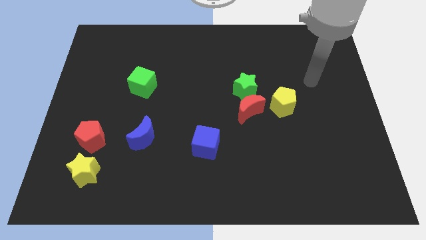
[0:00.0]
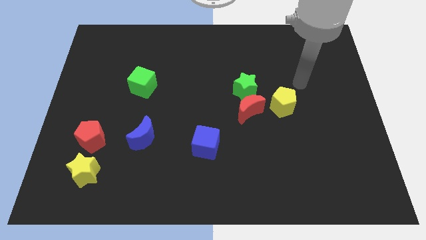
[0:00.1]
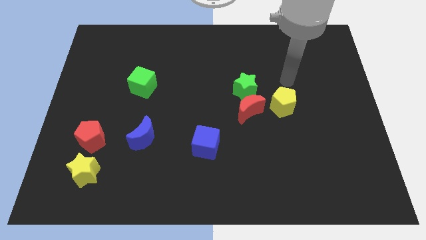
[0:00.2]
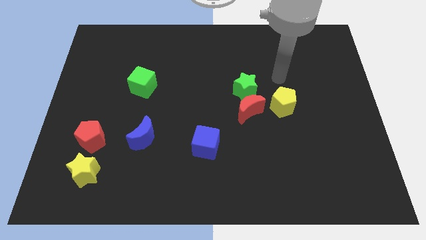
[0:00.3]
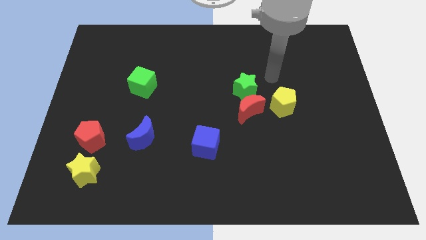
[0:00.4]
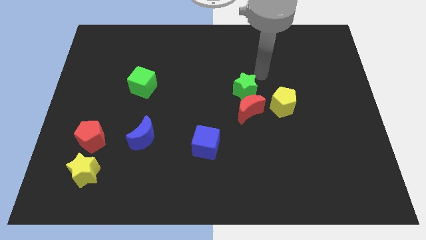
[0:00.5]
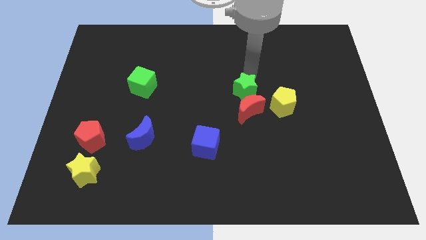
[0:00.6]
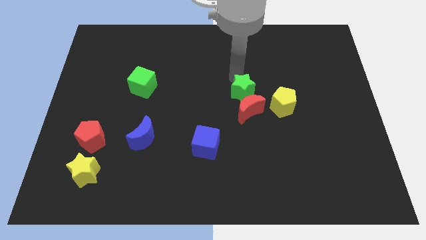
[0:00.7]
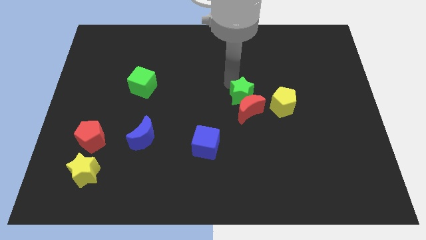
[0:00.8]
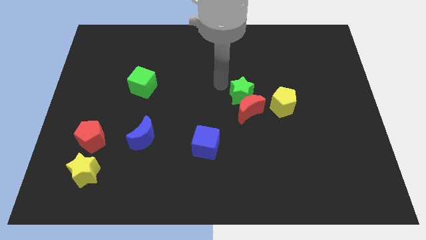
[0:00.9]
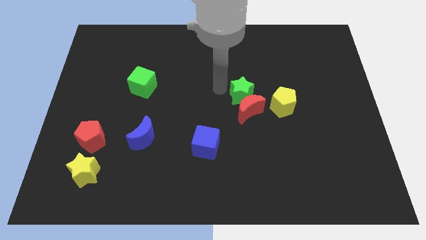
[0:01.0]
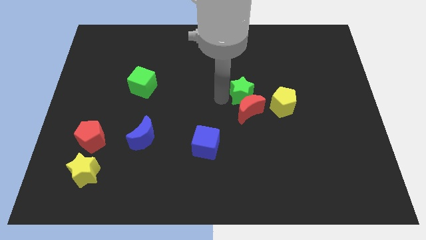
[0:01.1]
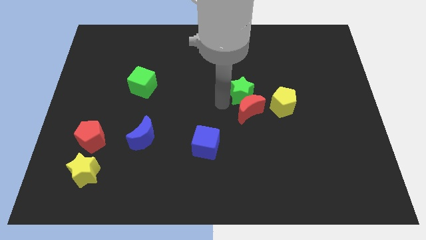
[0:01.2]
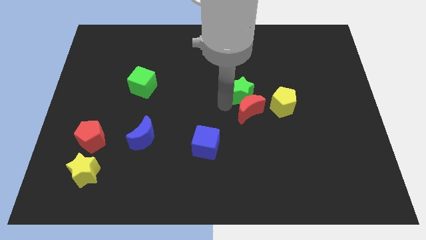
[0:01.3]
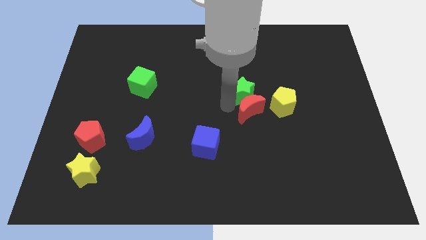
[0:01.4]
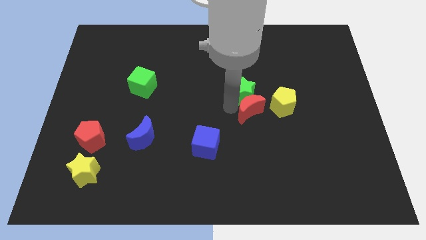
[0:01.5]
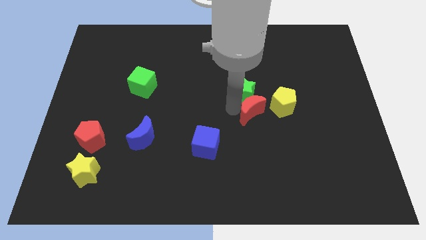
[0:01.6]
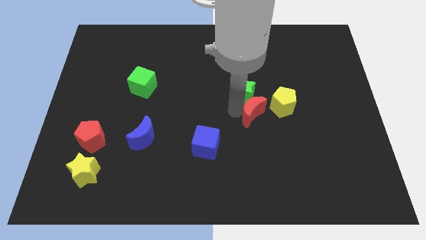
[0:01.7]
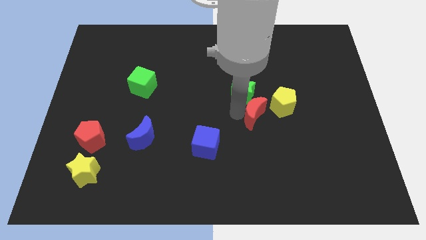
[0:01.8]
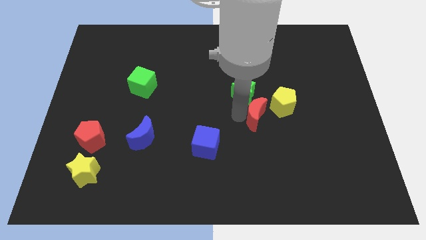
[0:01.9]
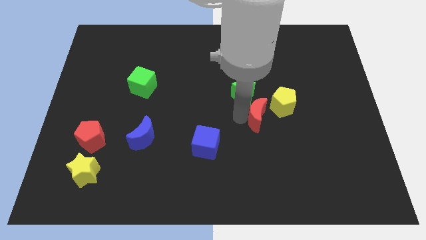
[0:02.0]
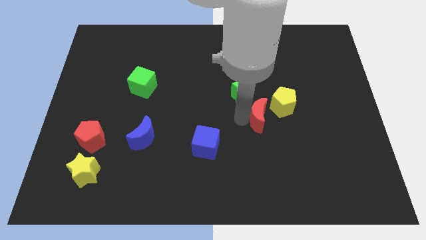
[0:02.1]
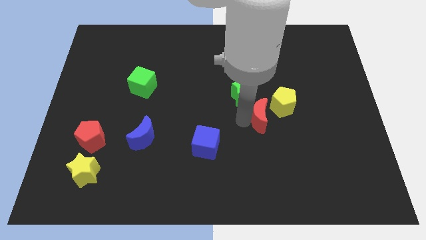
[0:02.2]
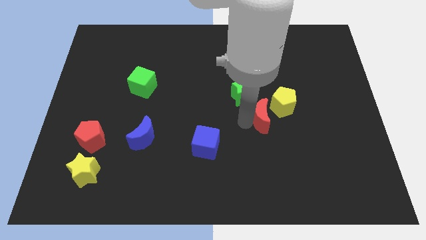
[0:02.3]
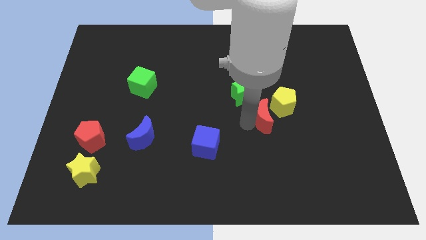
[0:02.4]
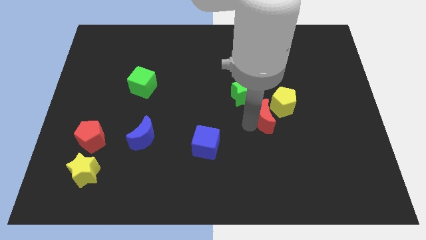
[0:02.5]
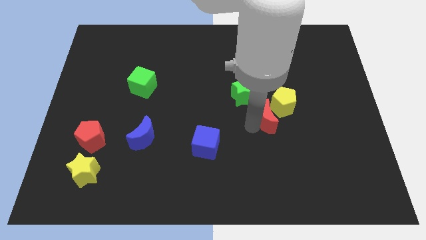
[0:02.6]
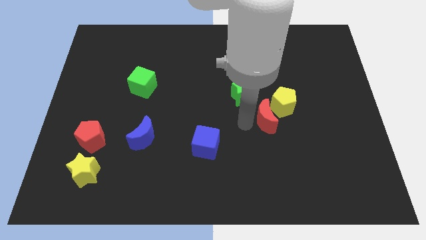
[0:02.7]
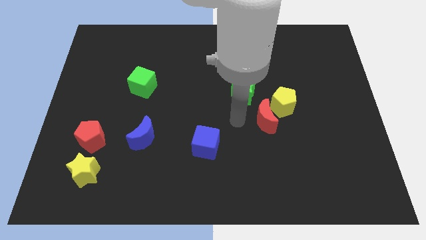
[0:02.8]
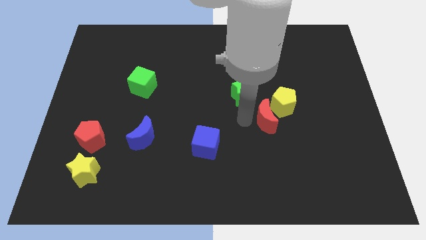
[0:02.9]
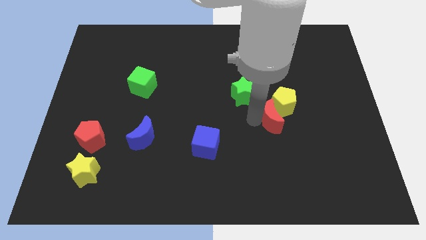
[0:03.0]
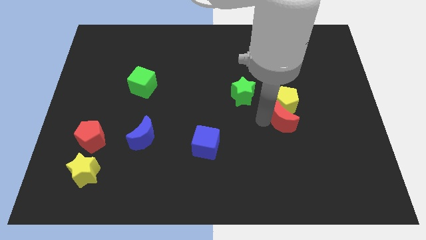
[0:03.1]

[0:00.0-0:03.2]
slightly move the red moon right

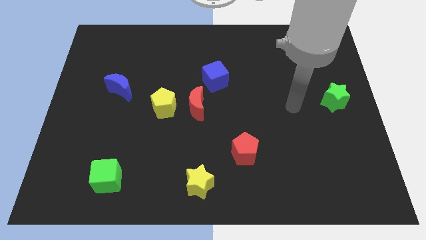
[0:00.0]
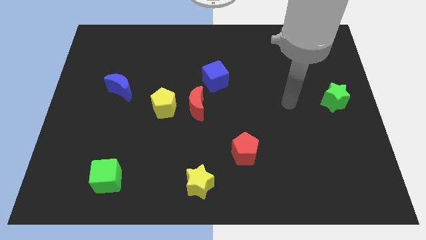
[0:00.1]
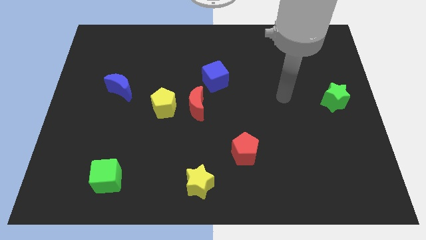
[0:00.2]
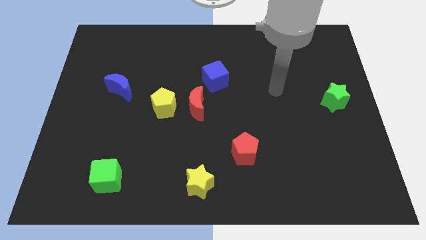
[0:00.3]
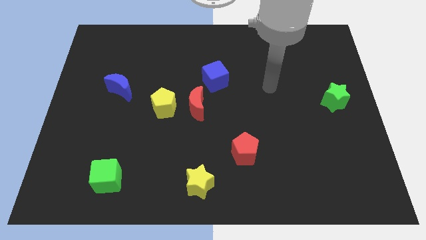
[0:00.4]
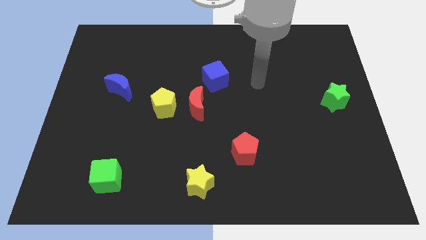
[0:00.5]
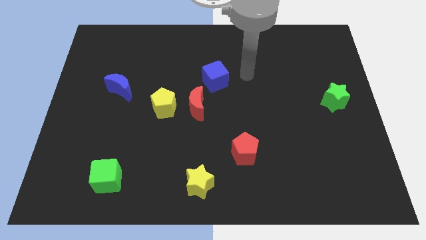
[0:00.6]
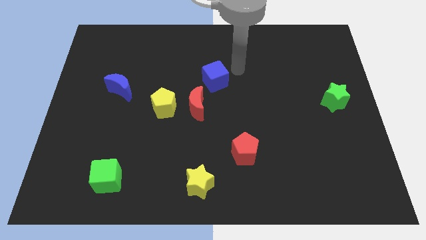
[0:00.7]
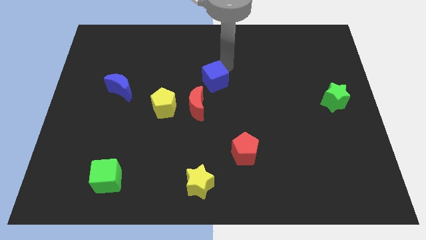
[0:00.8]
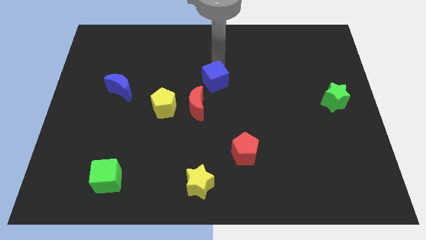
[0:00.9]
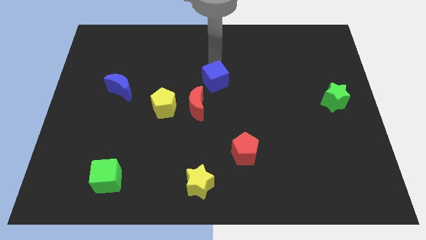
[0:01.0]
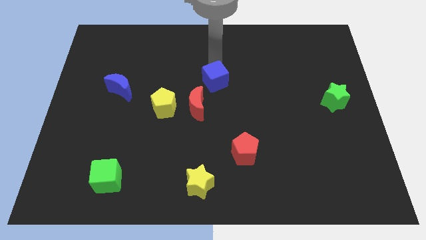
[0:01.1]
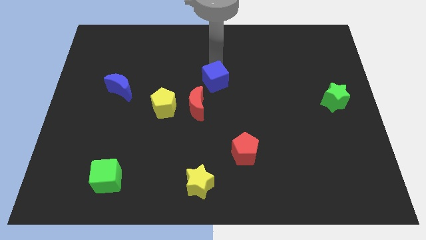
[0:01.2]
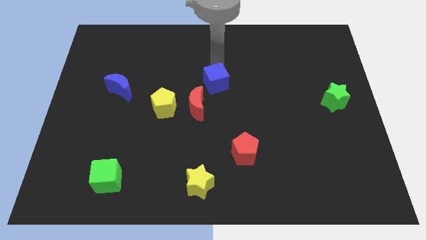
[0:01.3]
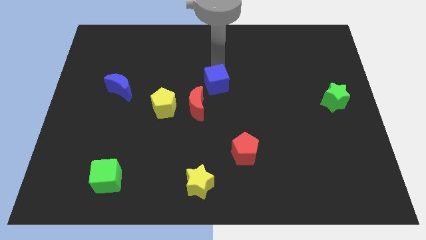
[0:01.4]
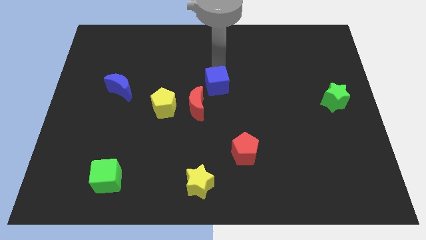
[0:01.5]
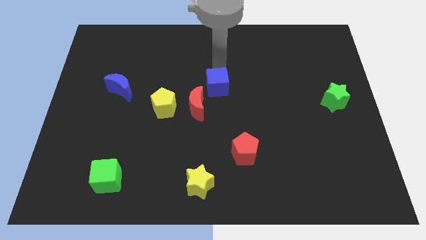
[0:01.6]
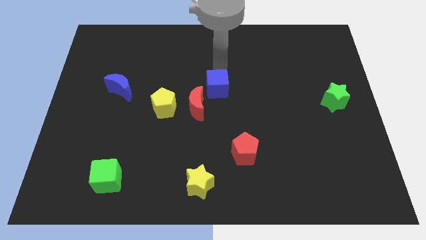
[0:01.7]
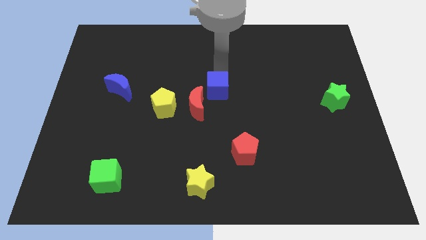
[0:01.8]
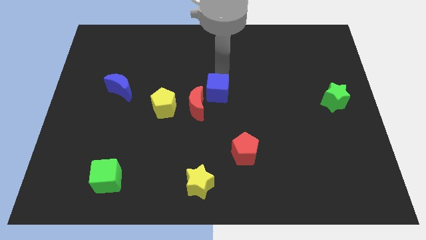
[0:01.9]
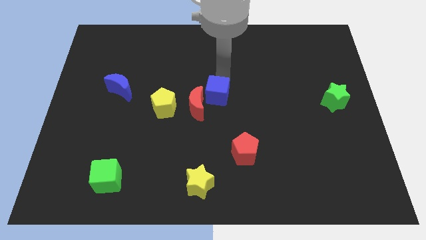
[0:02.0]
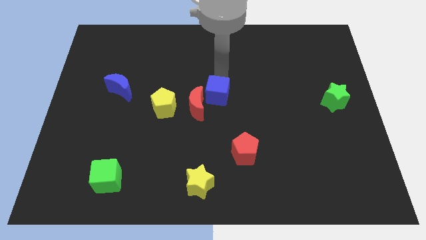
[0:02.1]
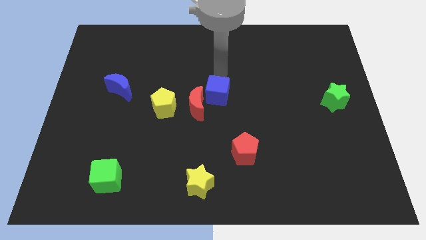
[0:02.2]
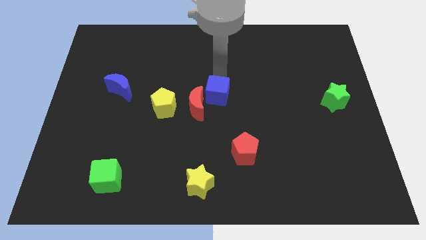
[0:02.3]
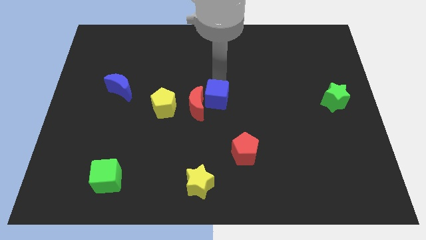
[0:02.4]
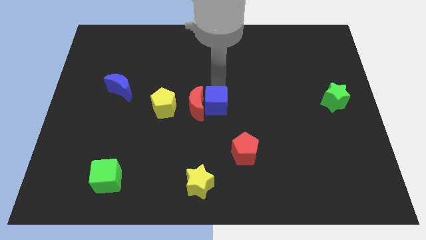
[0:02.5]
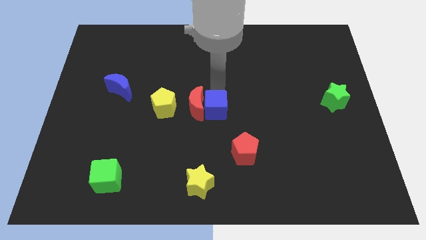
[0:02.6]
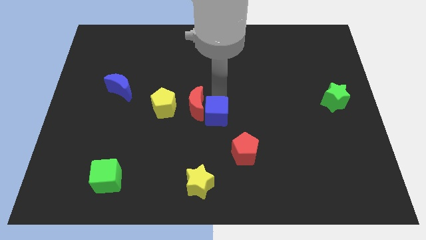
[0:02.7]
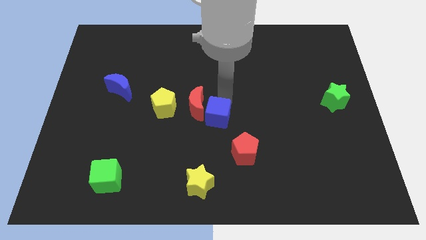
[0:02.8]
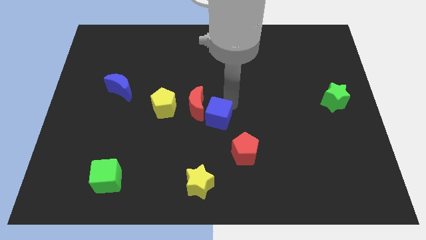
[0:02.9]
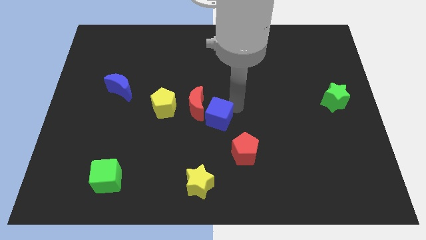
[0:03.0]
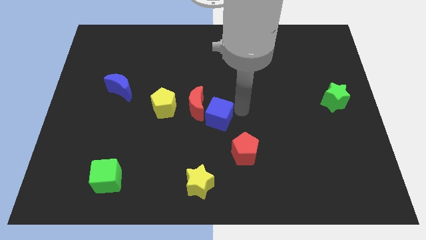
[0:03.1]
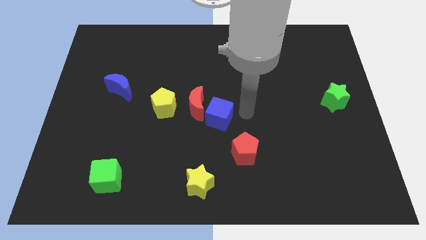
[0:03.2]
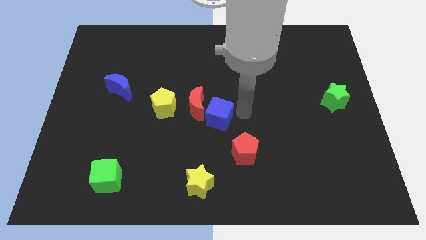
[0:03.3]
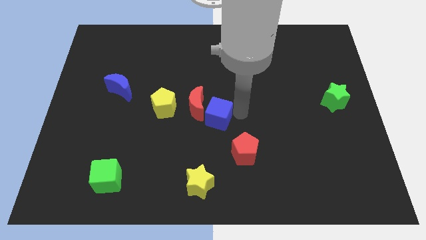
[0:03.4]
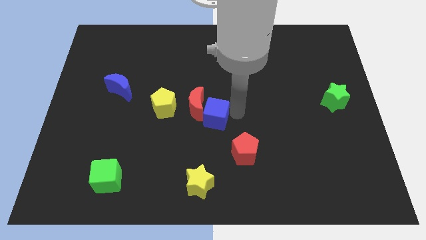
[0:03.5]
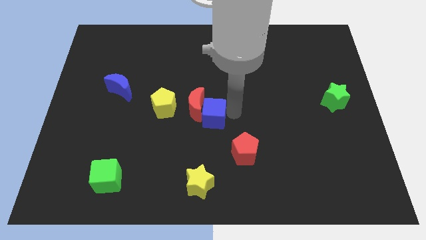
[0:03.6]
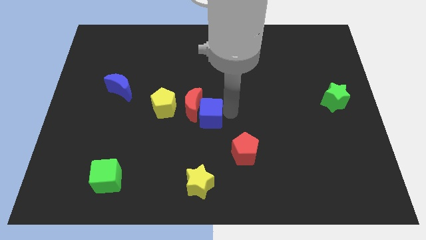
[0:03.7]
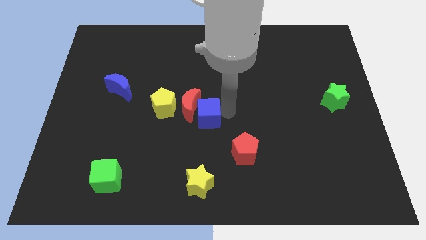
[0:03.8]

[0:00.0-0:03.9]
push the blue cube down and left diagonally a bit

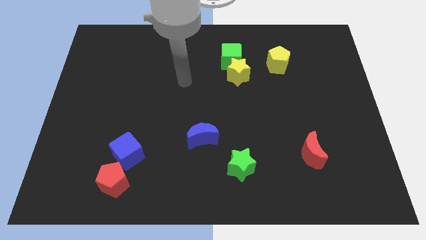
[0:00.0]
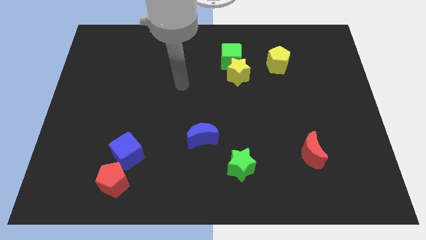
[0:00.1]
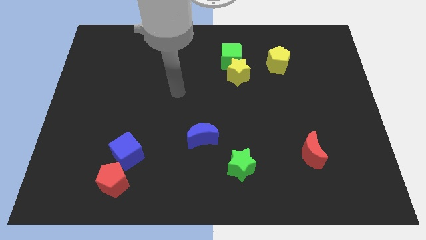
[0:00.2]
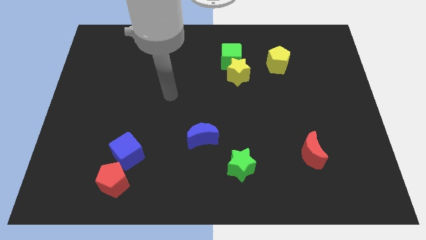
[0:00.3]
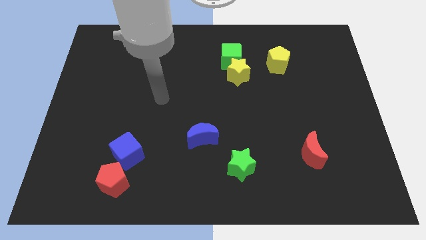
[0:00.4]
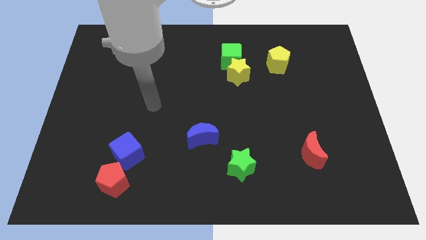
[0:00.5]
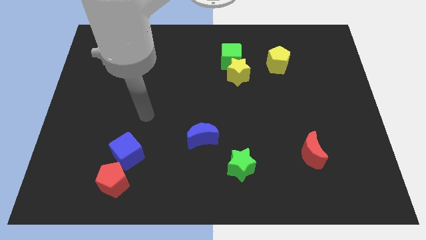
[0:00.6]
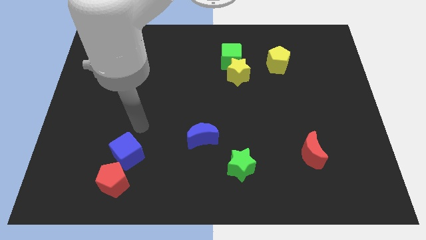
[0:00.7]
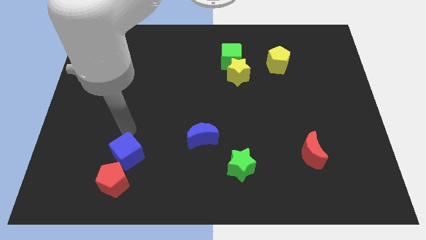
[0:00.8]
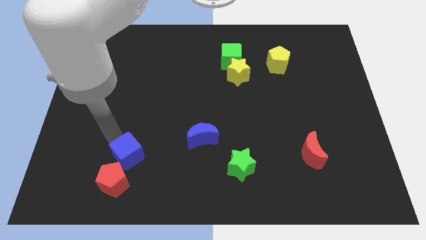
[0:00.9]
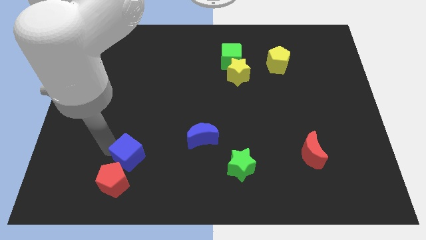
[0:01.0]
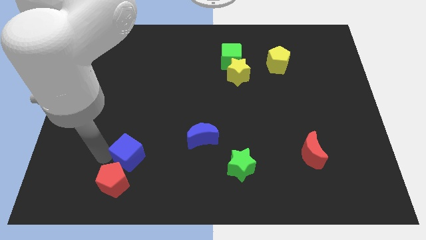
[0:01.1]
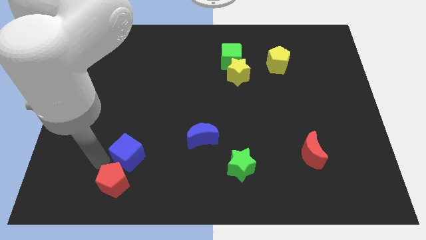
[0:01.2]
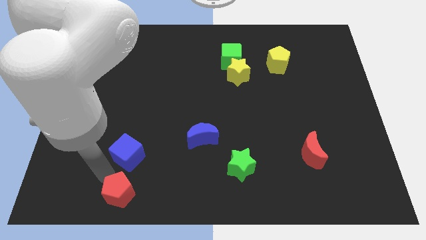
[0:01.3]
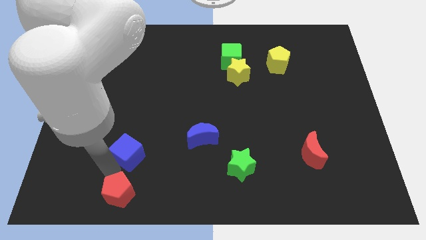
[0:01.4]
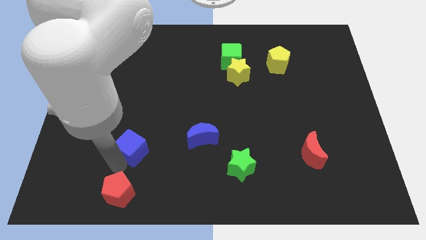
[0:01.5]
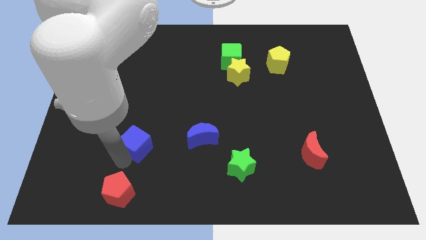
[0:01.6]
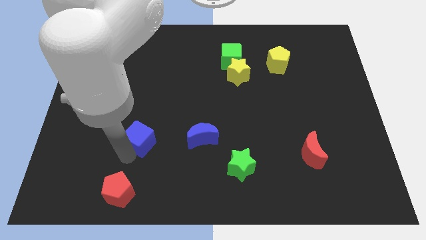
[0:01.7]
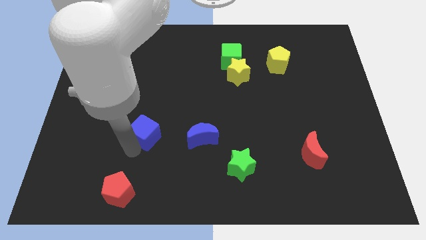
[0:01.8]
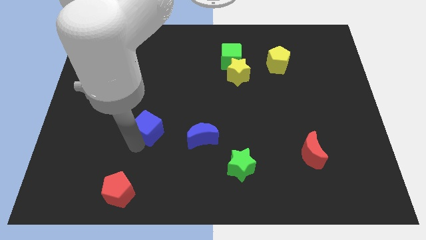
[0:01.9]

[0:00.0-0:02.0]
move the blue cube slightly upwards and right
